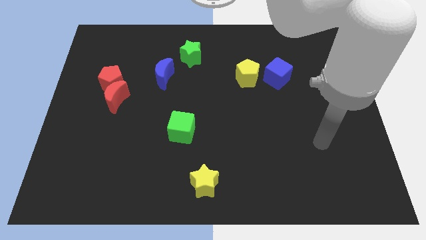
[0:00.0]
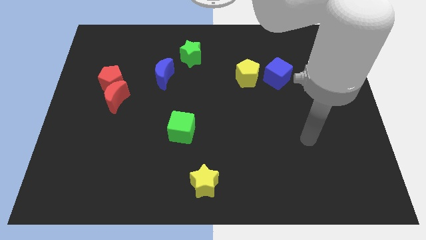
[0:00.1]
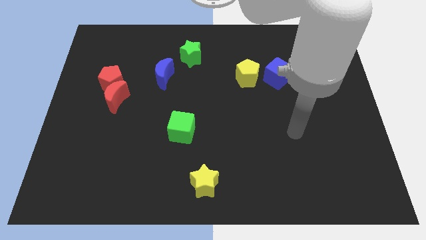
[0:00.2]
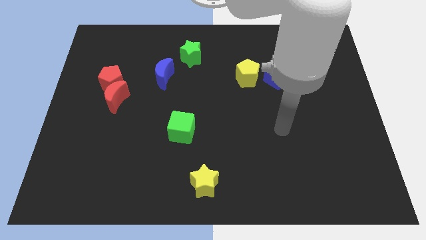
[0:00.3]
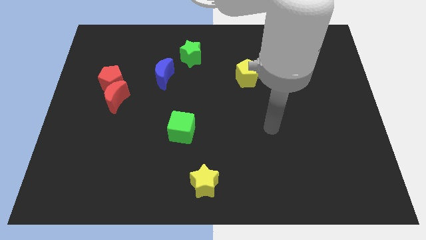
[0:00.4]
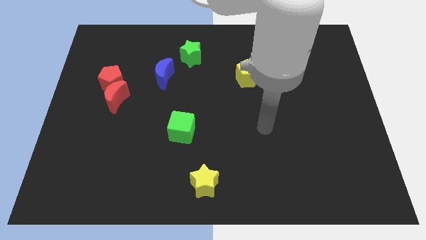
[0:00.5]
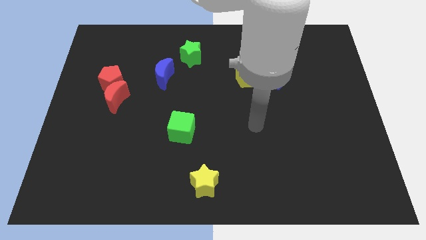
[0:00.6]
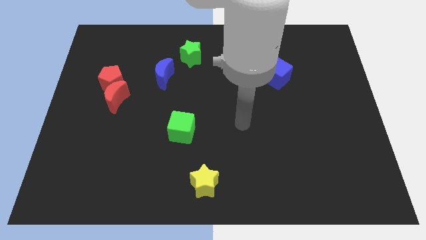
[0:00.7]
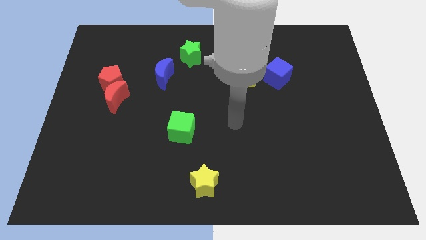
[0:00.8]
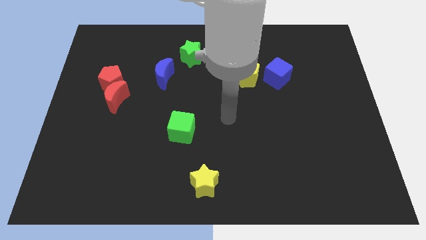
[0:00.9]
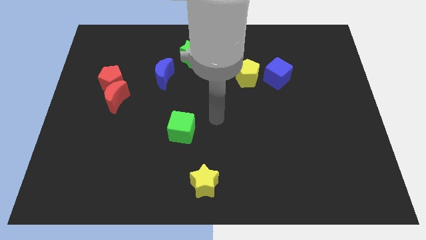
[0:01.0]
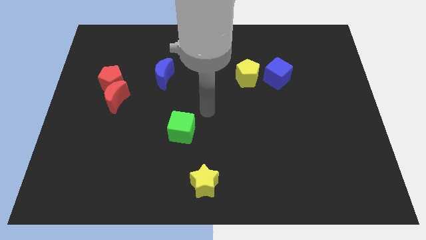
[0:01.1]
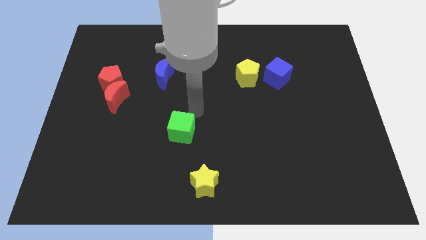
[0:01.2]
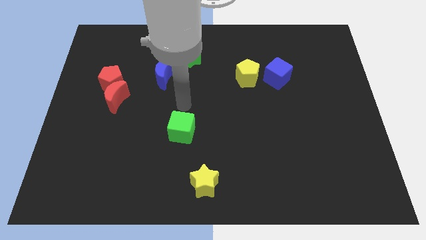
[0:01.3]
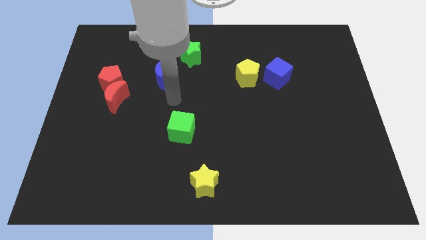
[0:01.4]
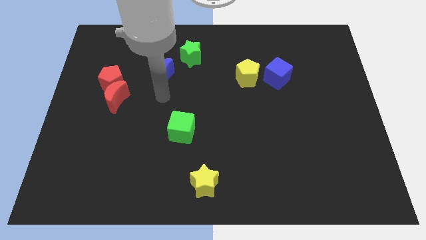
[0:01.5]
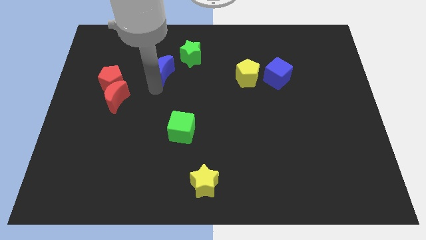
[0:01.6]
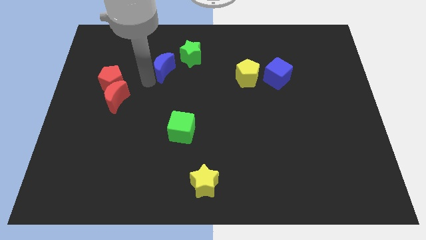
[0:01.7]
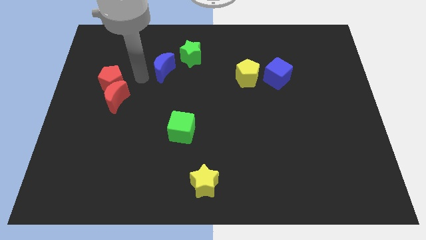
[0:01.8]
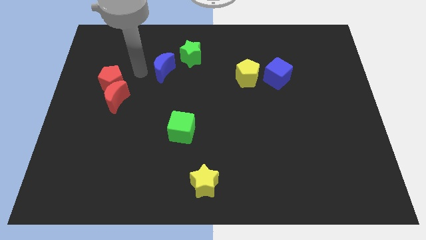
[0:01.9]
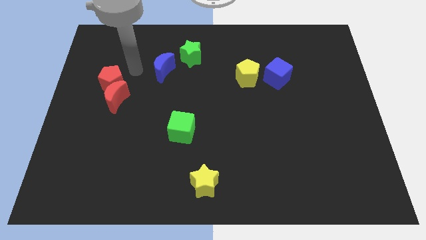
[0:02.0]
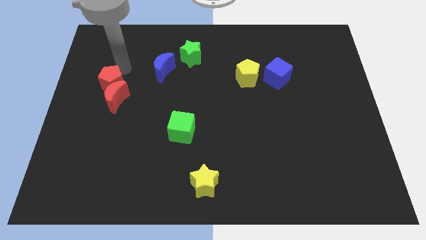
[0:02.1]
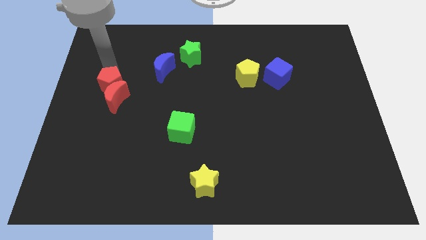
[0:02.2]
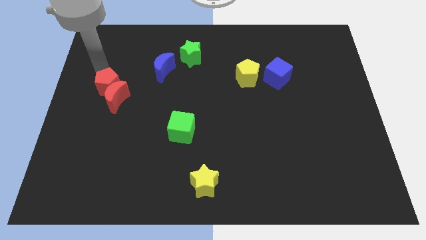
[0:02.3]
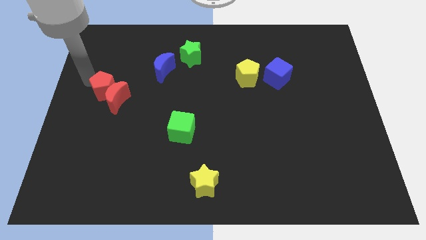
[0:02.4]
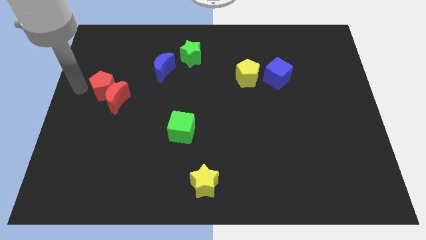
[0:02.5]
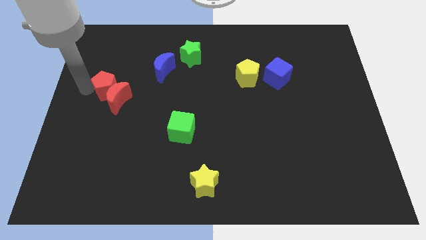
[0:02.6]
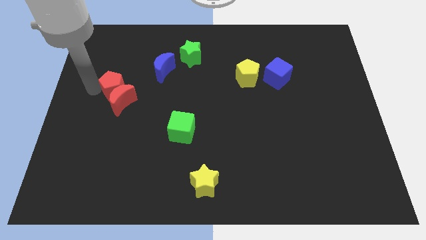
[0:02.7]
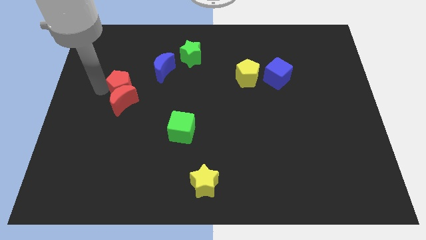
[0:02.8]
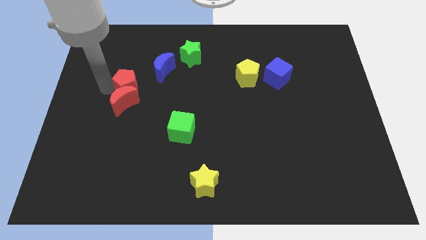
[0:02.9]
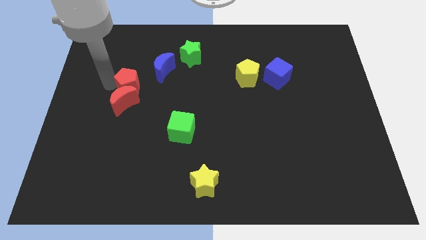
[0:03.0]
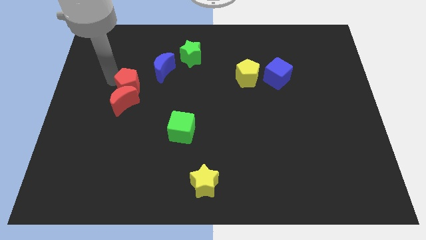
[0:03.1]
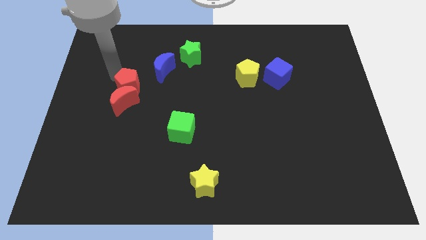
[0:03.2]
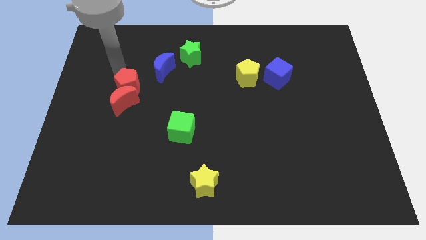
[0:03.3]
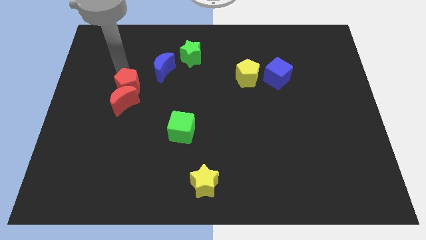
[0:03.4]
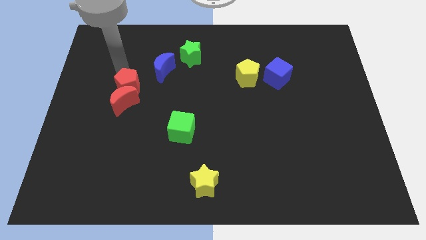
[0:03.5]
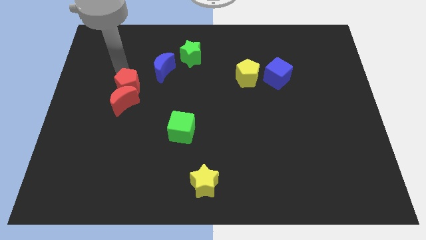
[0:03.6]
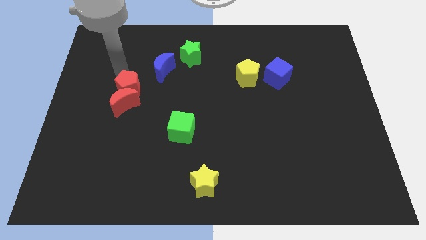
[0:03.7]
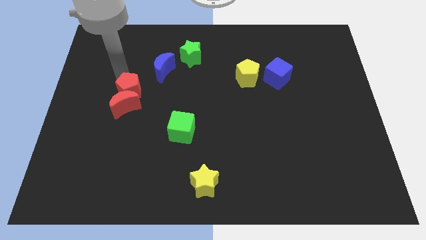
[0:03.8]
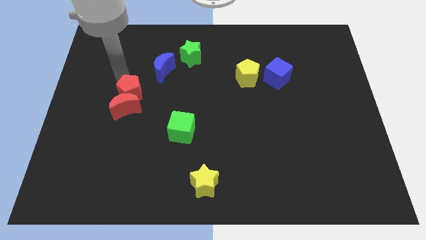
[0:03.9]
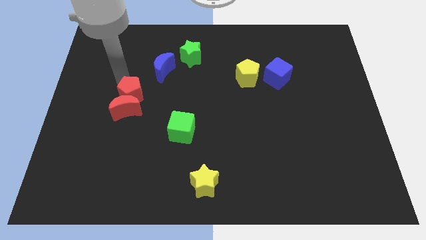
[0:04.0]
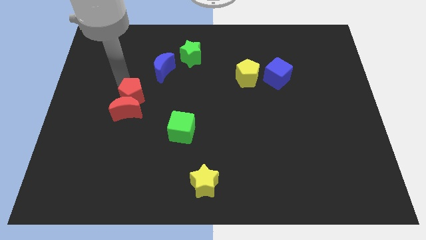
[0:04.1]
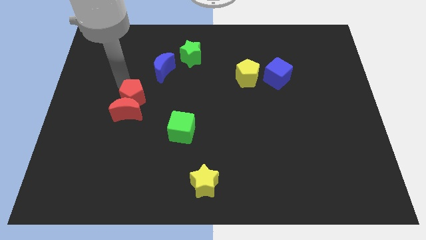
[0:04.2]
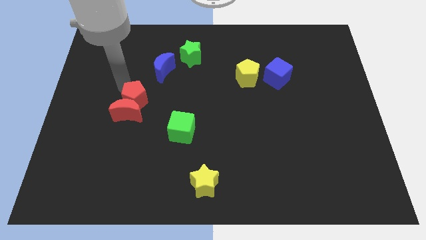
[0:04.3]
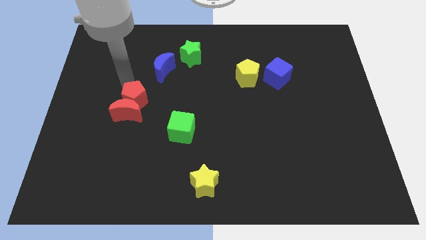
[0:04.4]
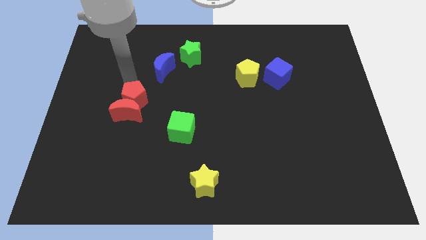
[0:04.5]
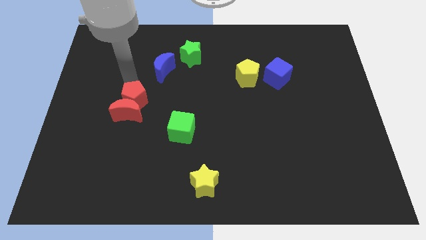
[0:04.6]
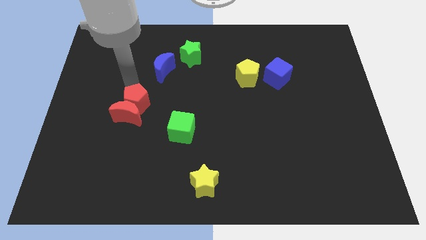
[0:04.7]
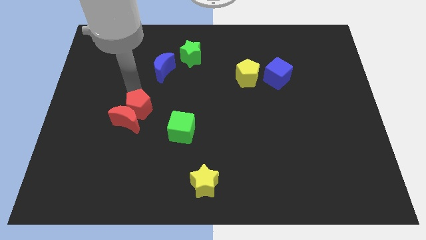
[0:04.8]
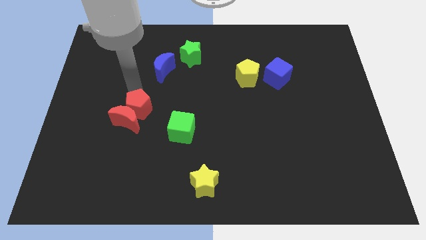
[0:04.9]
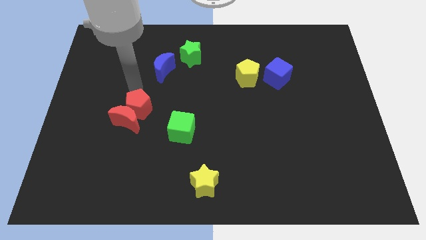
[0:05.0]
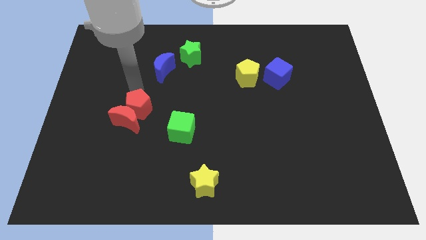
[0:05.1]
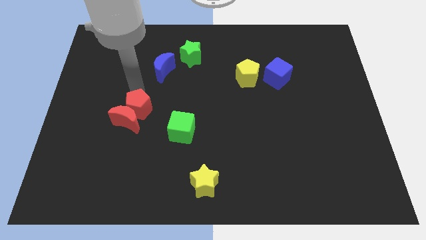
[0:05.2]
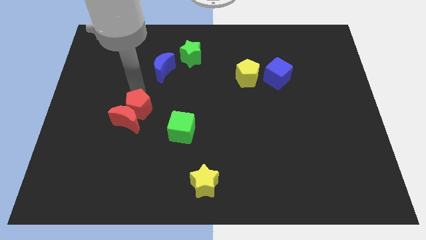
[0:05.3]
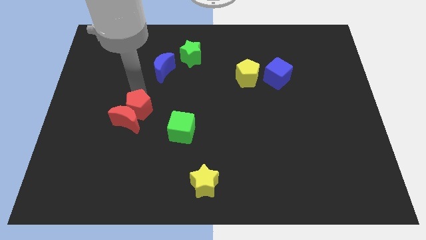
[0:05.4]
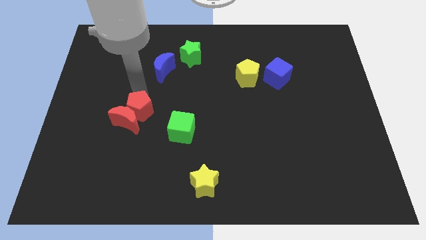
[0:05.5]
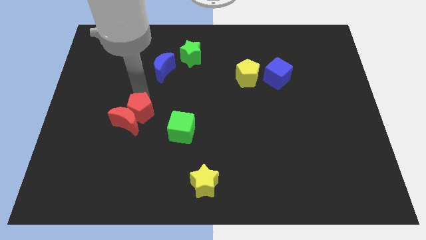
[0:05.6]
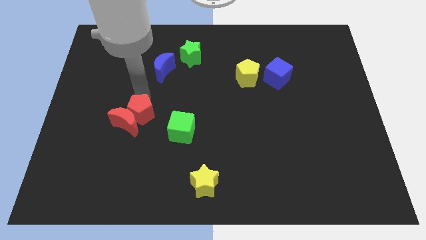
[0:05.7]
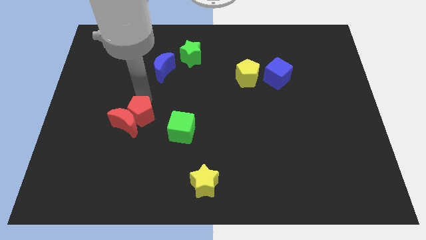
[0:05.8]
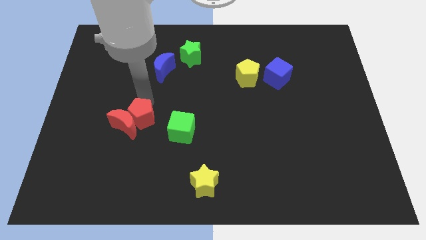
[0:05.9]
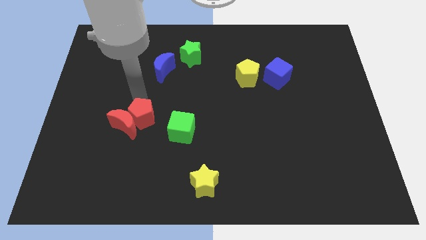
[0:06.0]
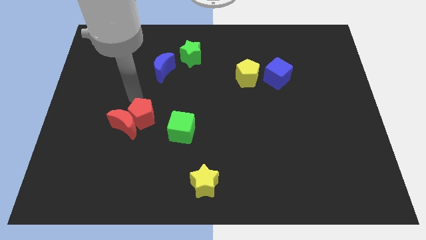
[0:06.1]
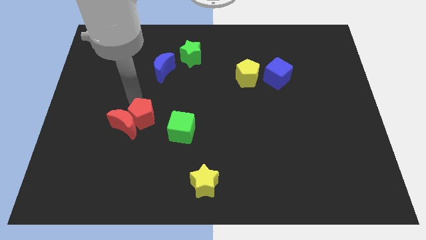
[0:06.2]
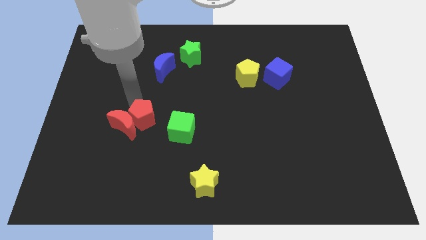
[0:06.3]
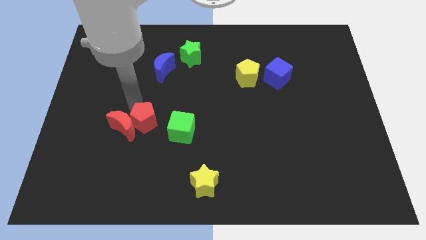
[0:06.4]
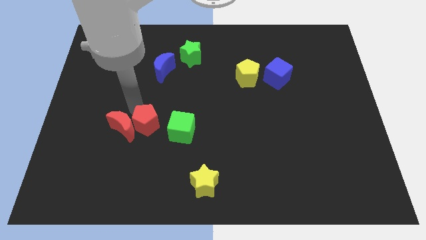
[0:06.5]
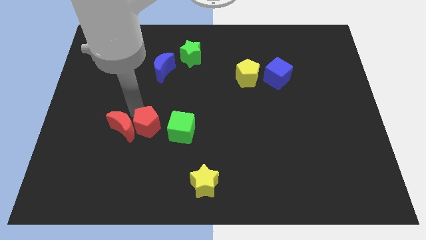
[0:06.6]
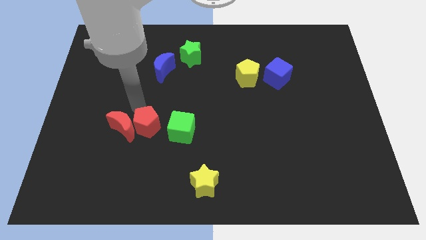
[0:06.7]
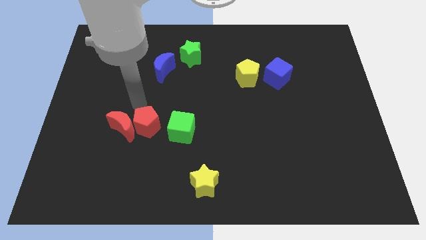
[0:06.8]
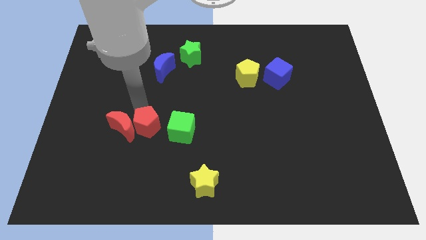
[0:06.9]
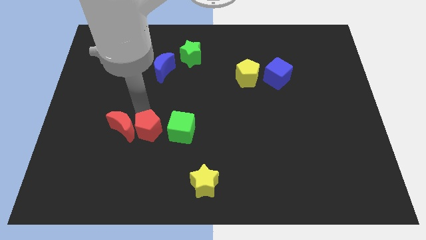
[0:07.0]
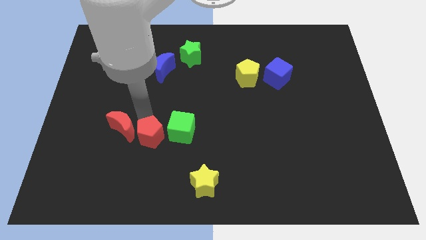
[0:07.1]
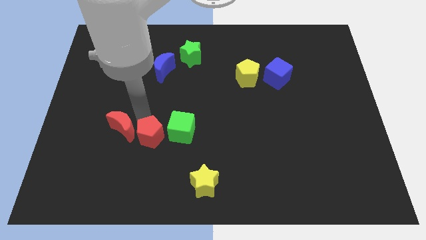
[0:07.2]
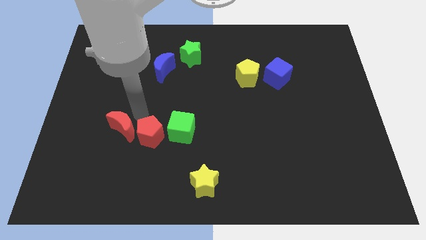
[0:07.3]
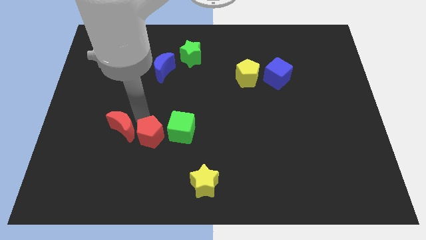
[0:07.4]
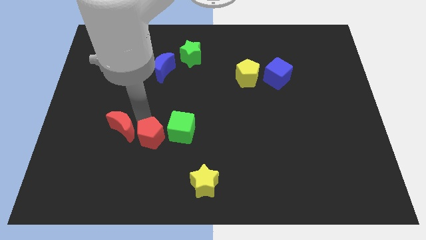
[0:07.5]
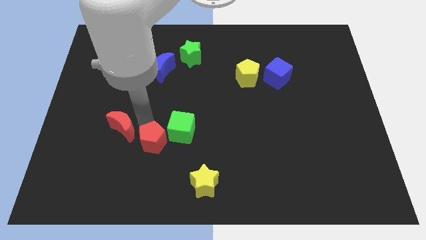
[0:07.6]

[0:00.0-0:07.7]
slide the red pentagon diagonally down and right

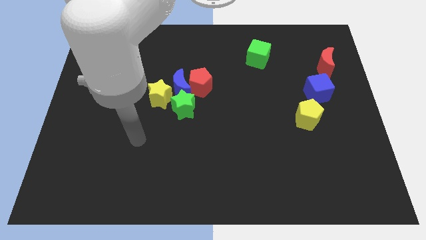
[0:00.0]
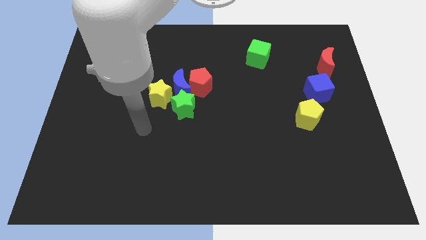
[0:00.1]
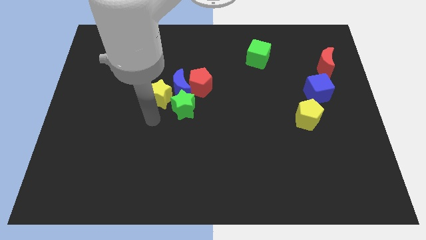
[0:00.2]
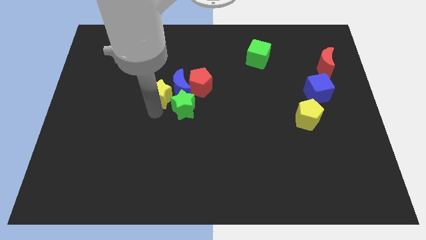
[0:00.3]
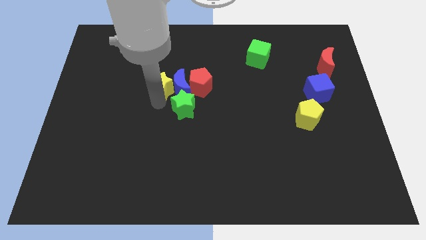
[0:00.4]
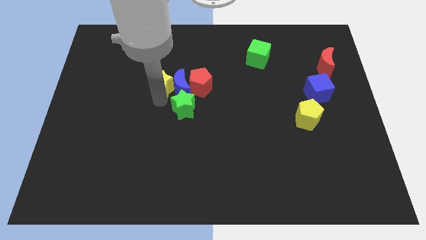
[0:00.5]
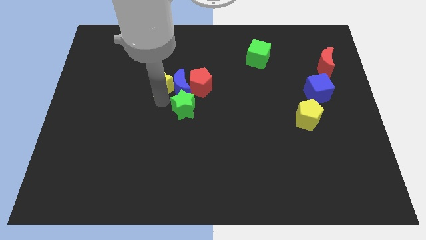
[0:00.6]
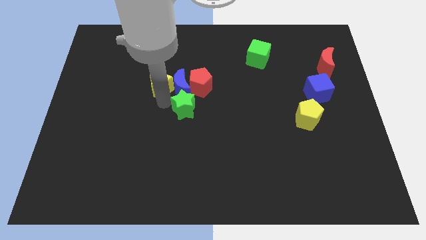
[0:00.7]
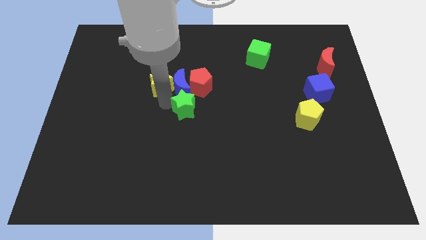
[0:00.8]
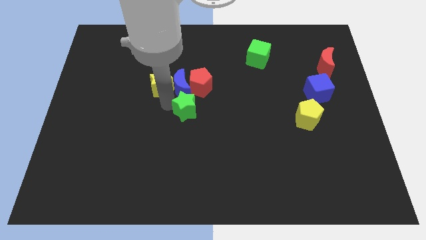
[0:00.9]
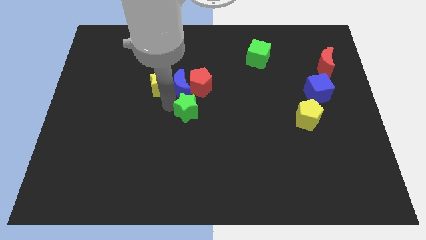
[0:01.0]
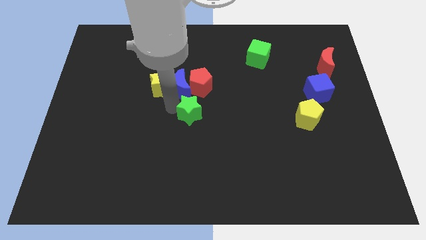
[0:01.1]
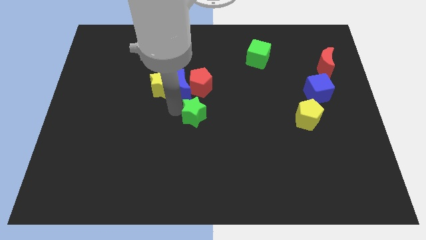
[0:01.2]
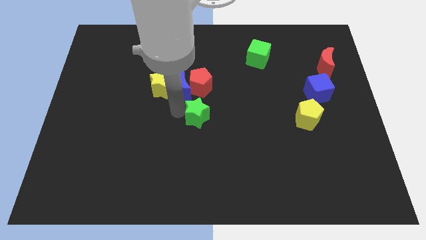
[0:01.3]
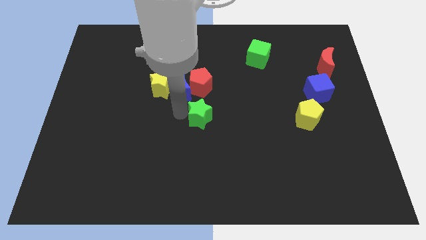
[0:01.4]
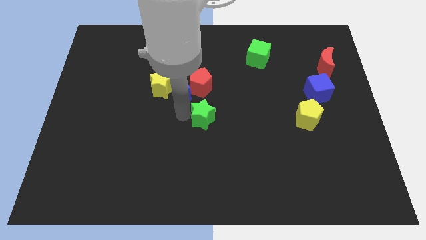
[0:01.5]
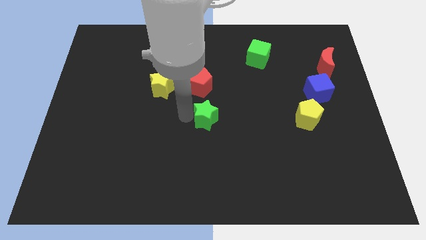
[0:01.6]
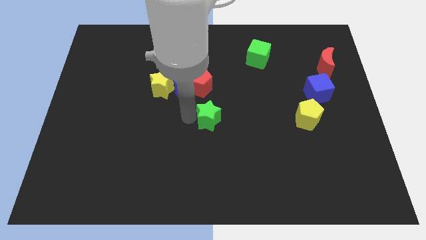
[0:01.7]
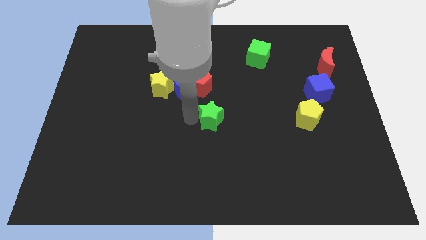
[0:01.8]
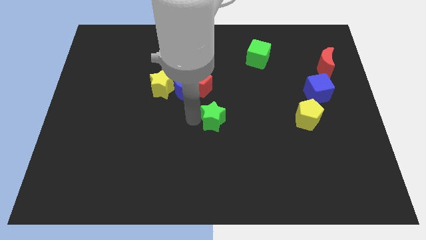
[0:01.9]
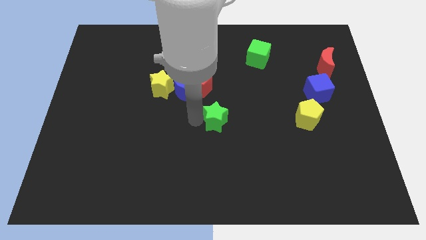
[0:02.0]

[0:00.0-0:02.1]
slightly move the green star right
